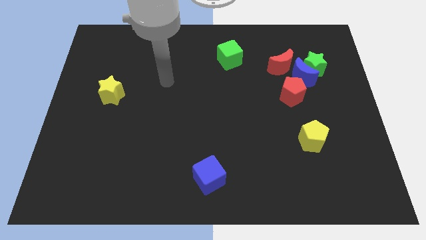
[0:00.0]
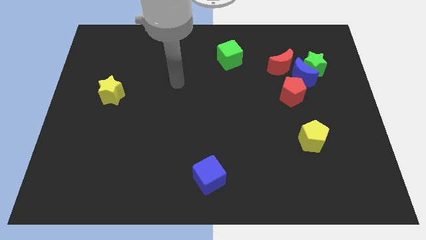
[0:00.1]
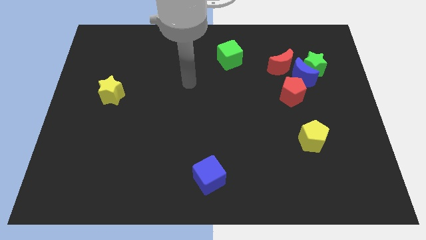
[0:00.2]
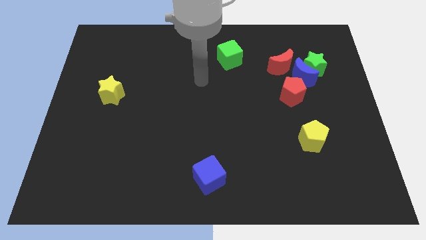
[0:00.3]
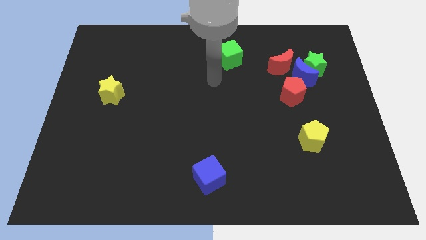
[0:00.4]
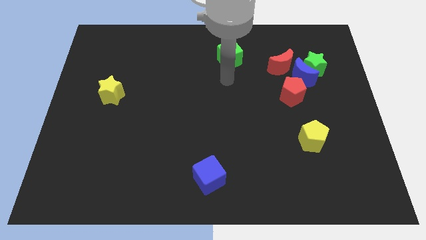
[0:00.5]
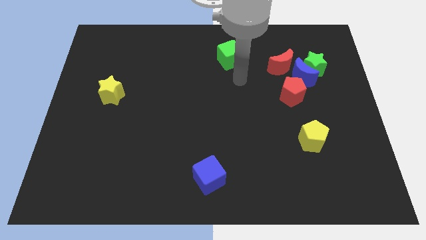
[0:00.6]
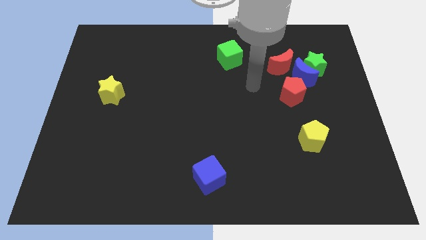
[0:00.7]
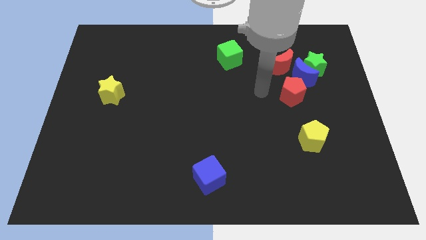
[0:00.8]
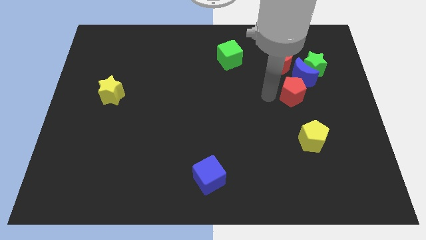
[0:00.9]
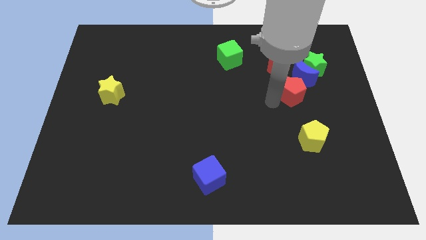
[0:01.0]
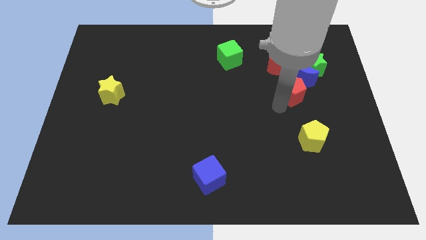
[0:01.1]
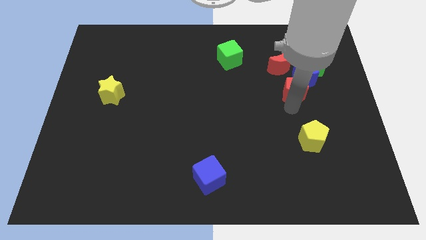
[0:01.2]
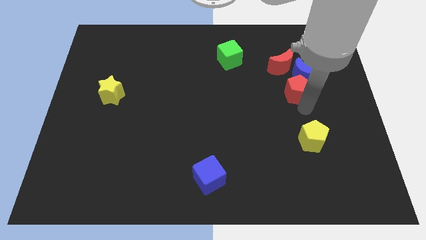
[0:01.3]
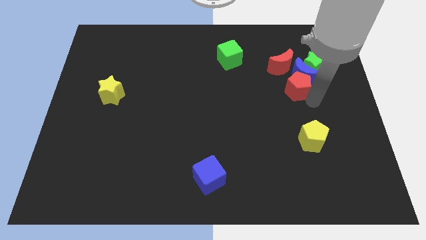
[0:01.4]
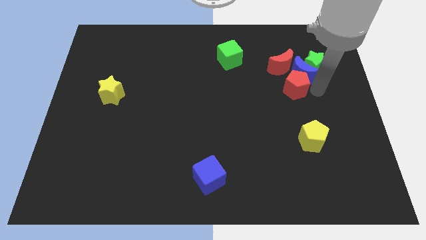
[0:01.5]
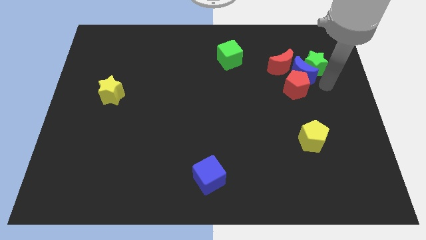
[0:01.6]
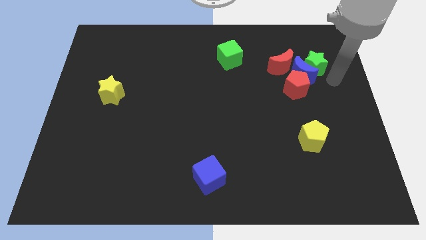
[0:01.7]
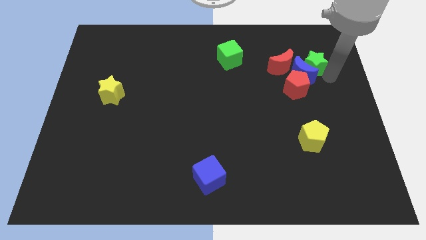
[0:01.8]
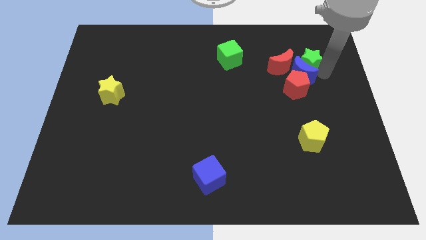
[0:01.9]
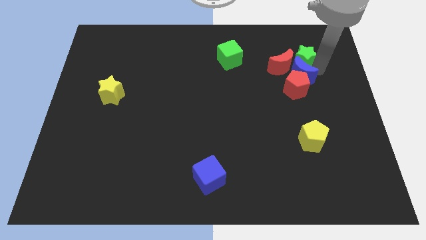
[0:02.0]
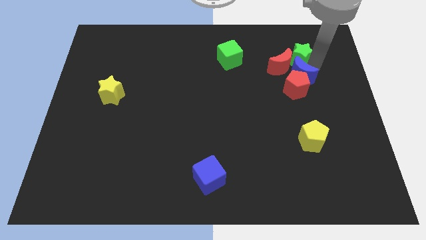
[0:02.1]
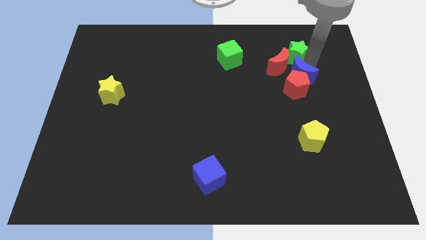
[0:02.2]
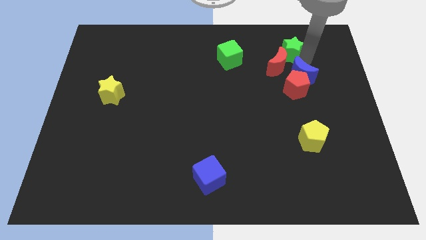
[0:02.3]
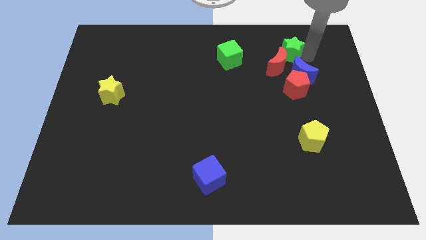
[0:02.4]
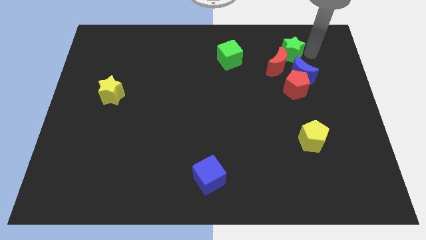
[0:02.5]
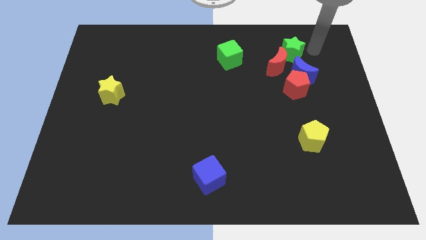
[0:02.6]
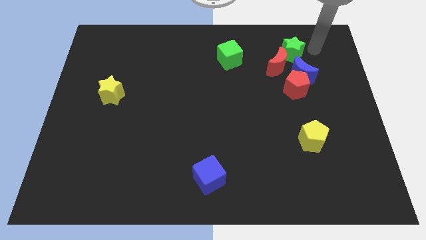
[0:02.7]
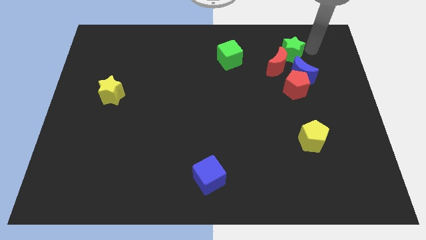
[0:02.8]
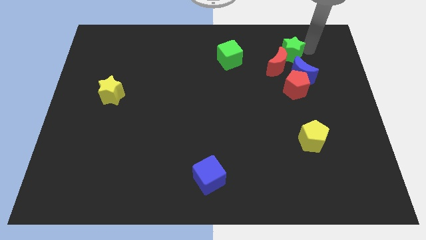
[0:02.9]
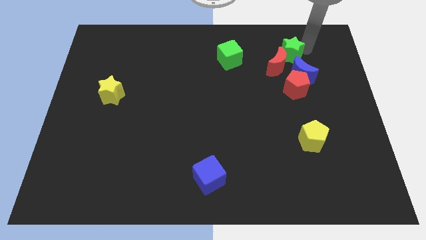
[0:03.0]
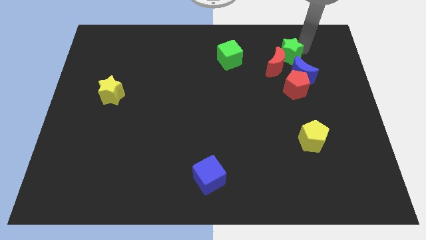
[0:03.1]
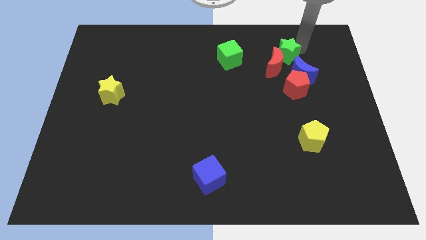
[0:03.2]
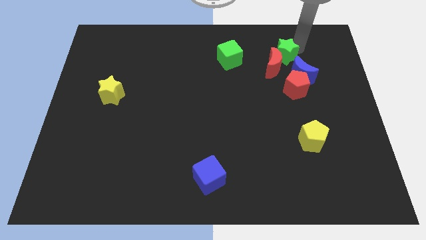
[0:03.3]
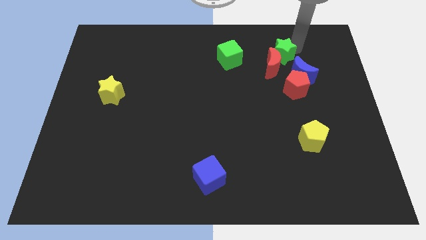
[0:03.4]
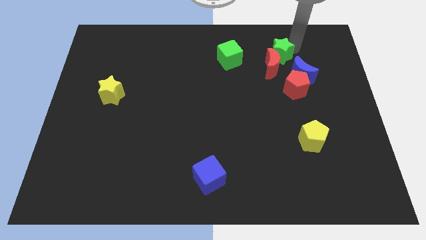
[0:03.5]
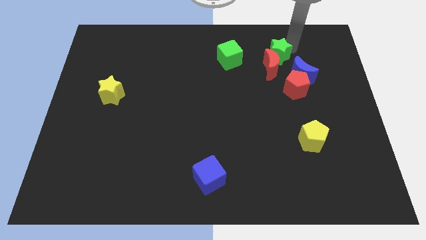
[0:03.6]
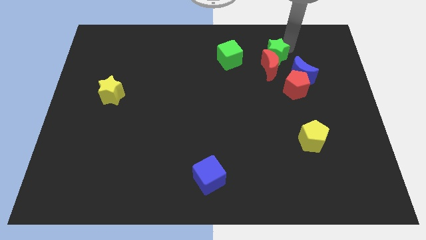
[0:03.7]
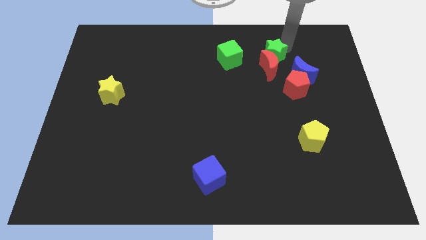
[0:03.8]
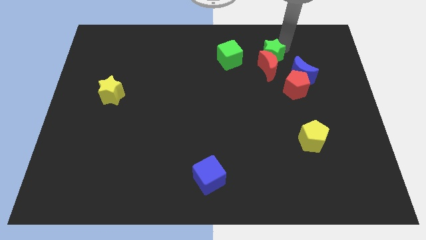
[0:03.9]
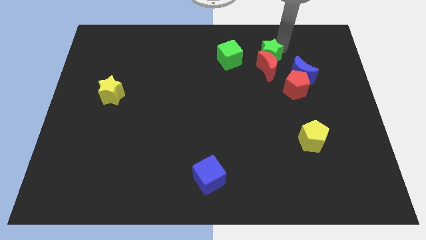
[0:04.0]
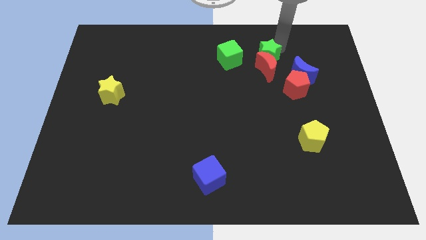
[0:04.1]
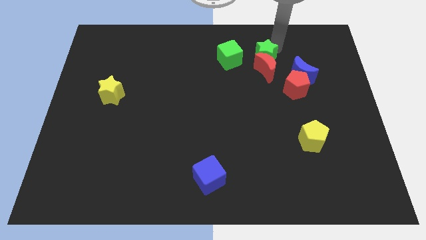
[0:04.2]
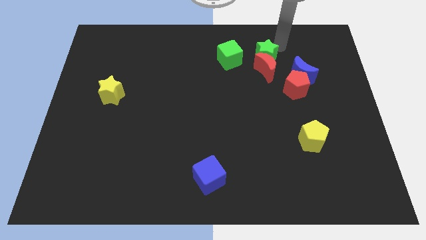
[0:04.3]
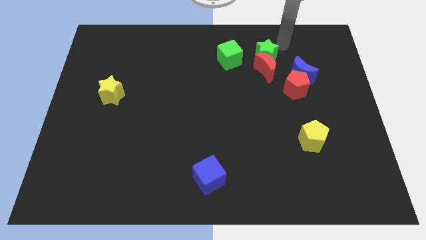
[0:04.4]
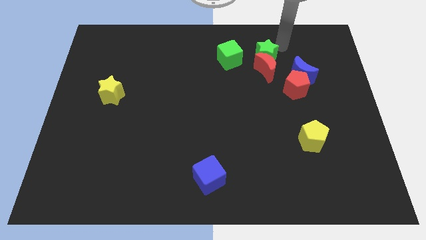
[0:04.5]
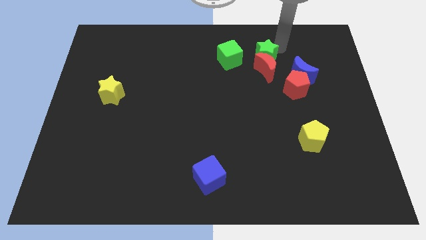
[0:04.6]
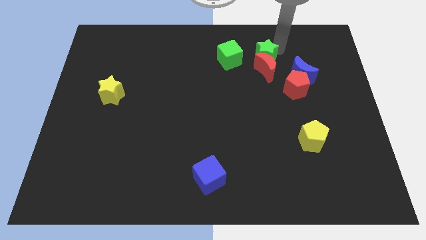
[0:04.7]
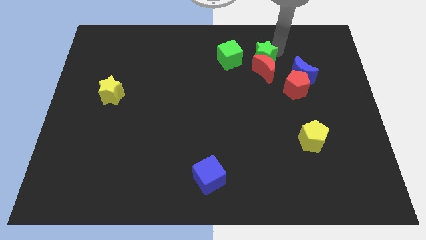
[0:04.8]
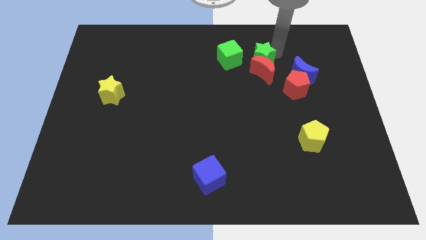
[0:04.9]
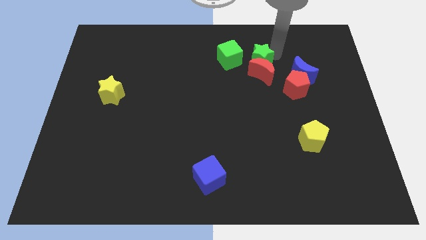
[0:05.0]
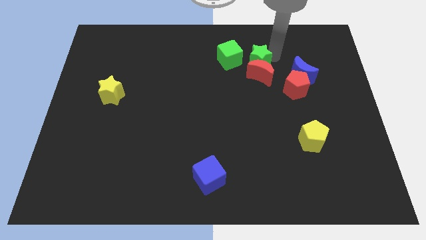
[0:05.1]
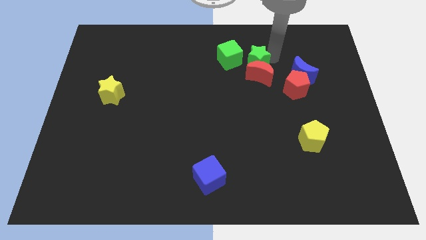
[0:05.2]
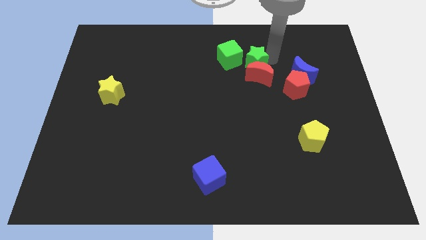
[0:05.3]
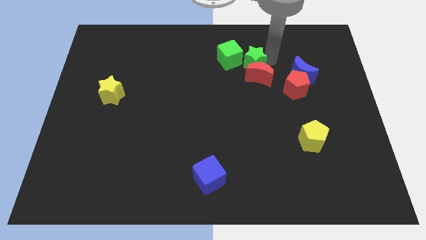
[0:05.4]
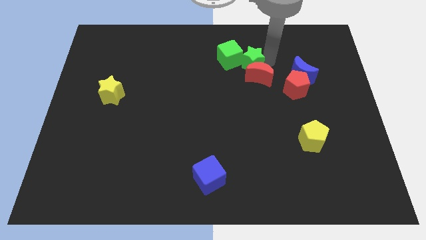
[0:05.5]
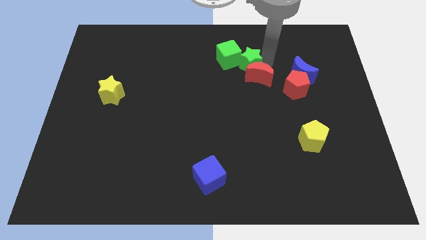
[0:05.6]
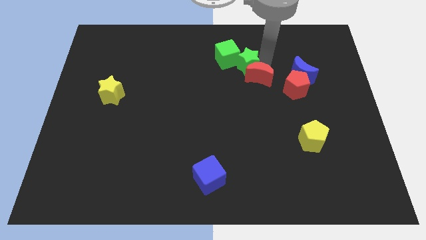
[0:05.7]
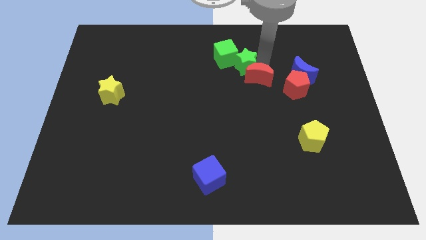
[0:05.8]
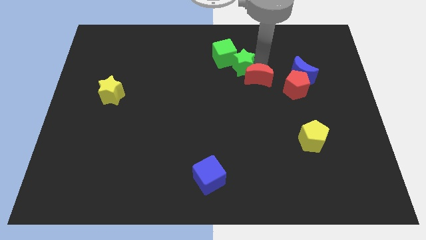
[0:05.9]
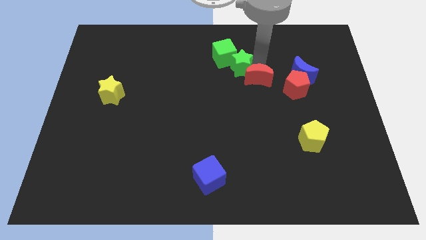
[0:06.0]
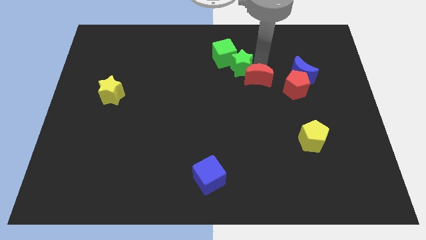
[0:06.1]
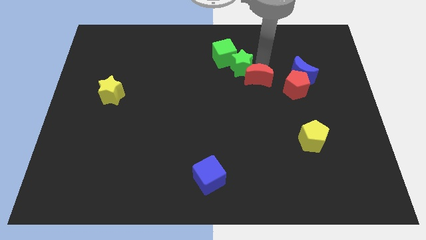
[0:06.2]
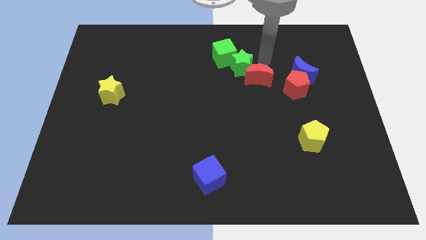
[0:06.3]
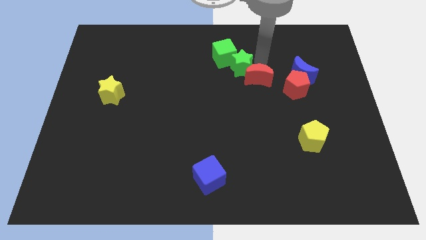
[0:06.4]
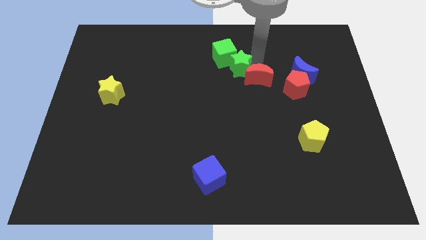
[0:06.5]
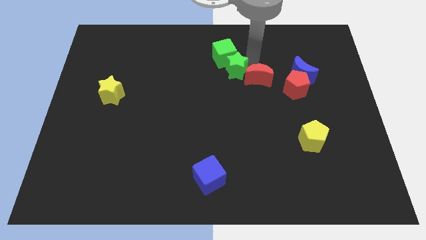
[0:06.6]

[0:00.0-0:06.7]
slide the green star to the left

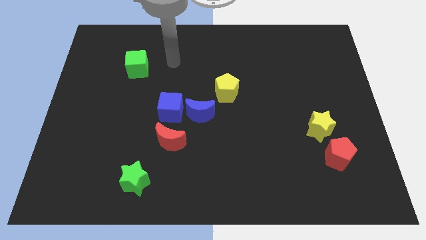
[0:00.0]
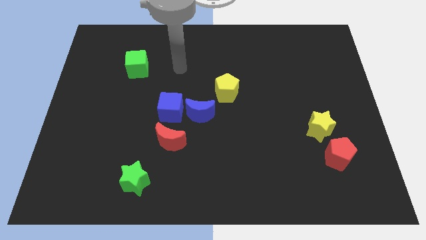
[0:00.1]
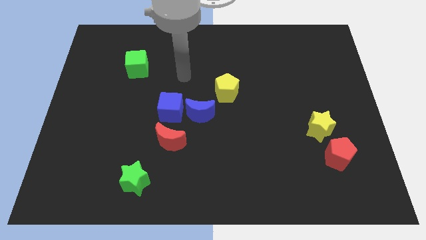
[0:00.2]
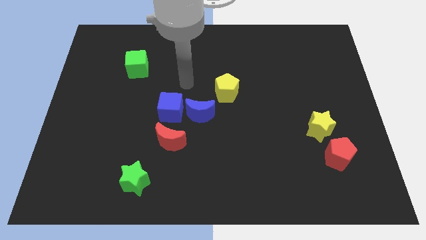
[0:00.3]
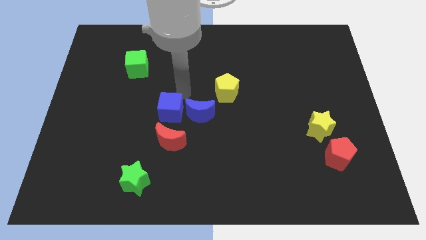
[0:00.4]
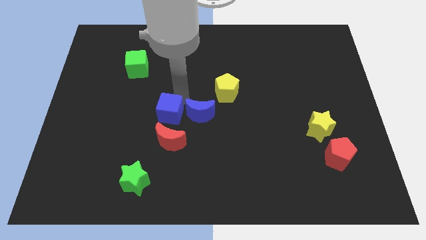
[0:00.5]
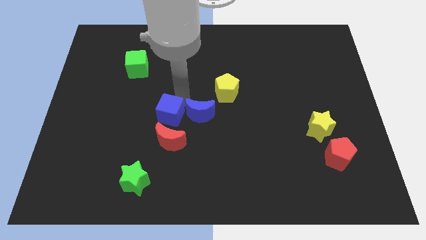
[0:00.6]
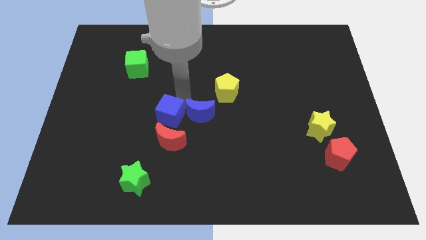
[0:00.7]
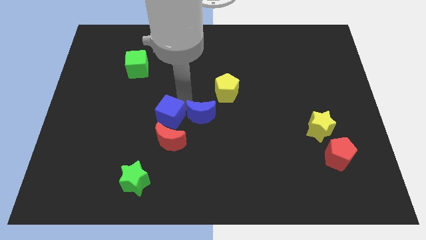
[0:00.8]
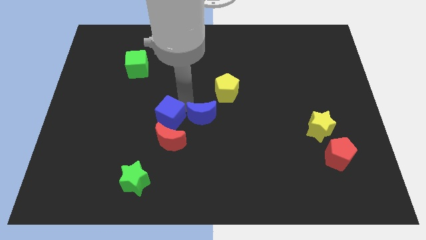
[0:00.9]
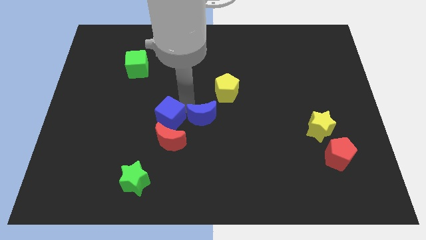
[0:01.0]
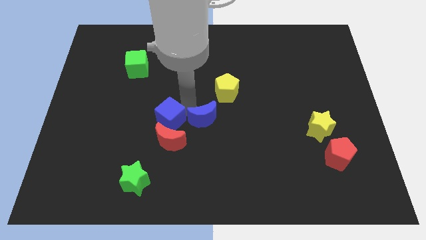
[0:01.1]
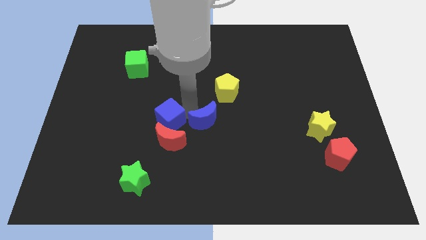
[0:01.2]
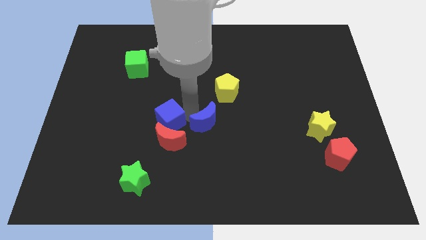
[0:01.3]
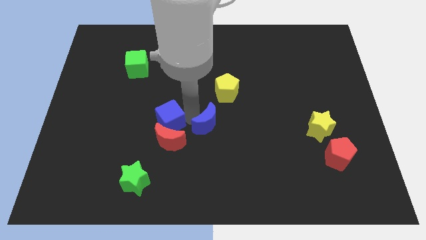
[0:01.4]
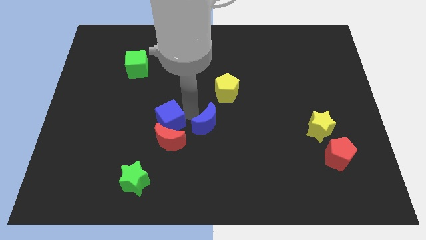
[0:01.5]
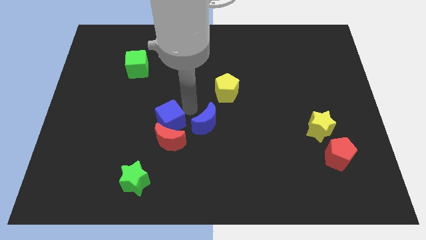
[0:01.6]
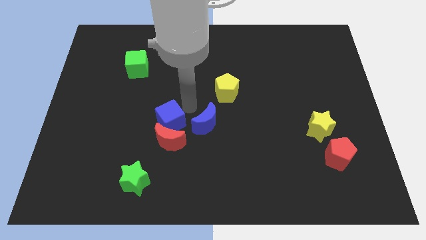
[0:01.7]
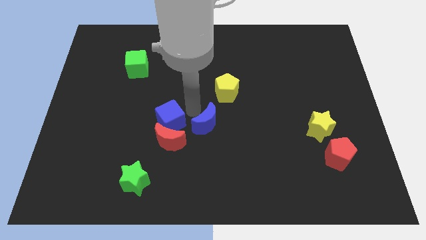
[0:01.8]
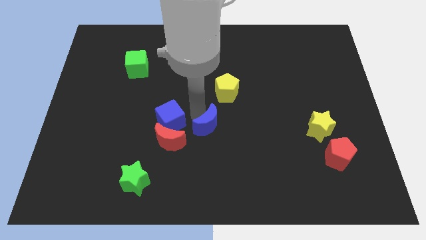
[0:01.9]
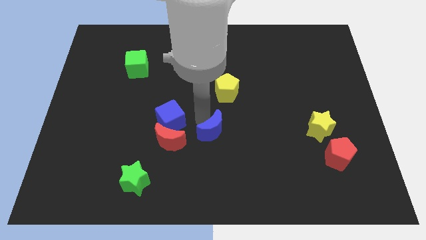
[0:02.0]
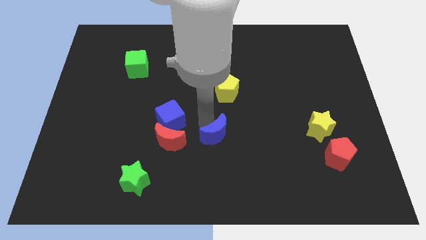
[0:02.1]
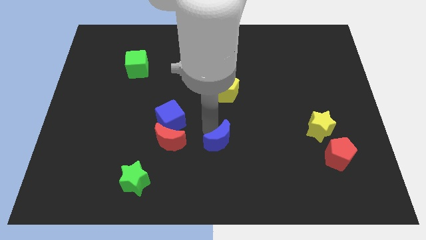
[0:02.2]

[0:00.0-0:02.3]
slide the blue moon down and to the right a little
